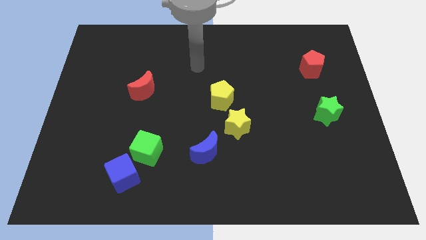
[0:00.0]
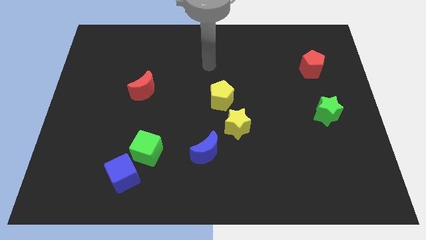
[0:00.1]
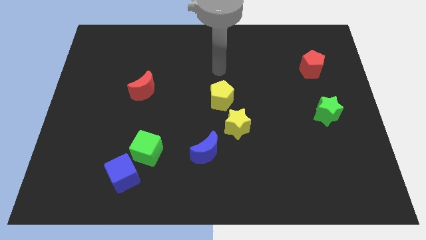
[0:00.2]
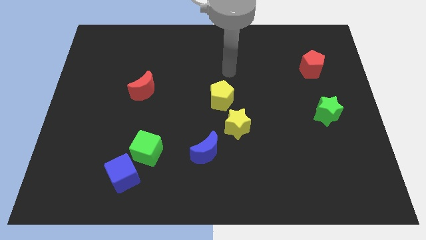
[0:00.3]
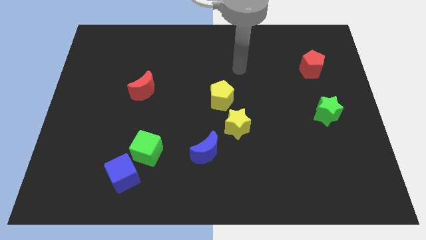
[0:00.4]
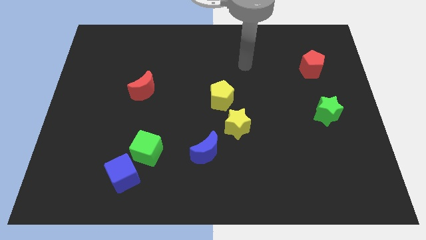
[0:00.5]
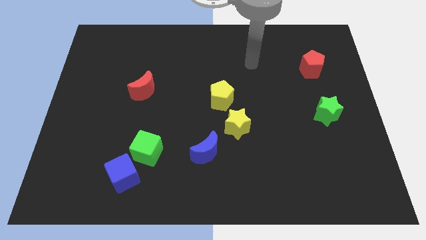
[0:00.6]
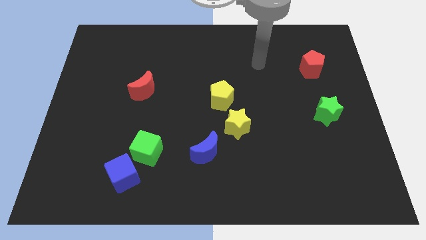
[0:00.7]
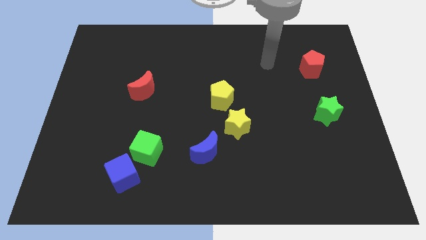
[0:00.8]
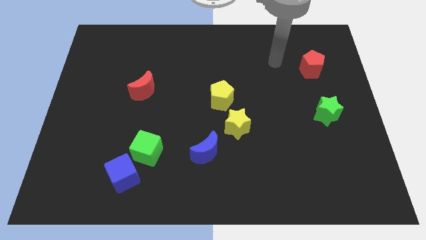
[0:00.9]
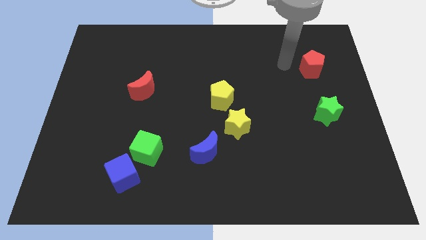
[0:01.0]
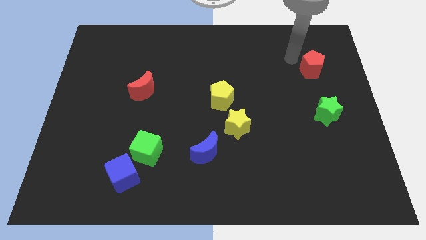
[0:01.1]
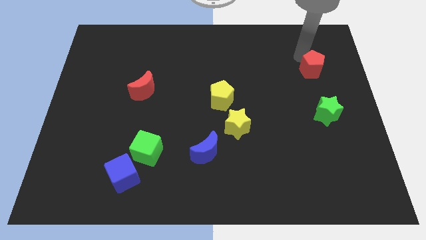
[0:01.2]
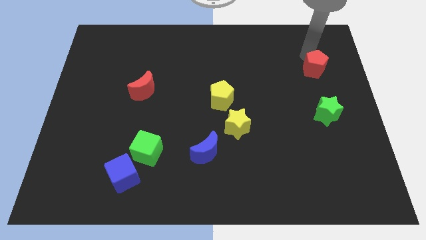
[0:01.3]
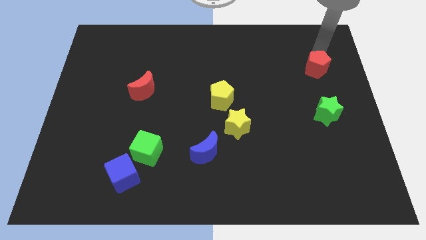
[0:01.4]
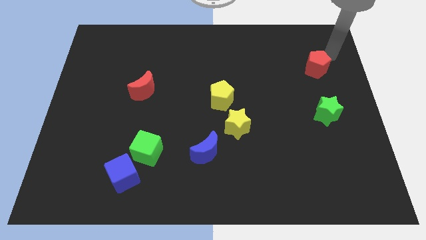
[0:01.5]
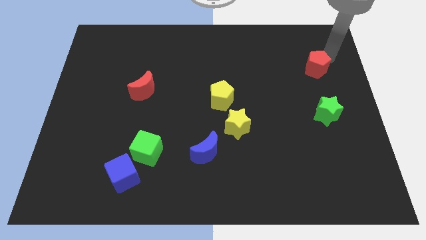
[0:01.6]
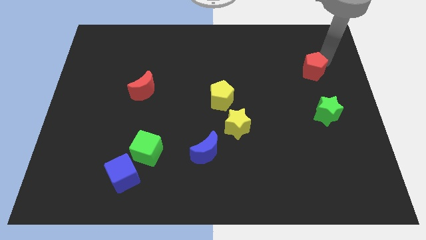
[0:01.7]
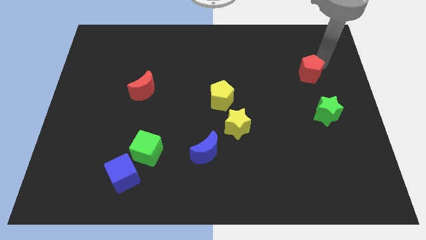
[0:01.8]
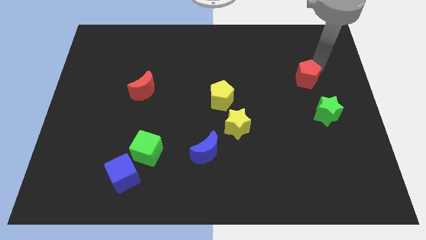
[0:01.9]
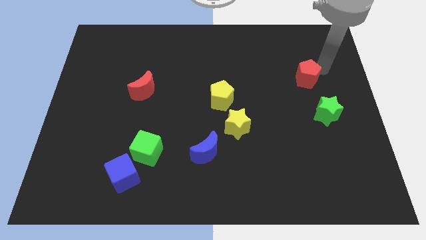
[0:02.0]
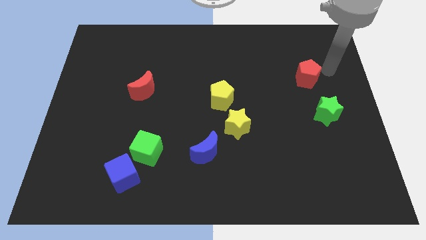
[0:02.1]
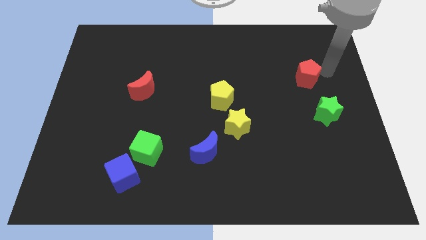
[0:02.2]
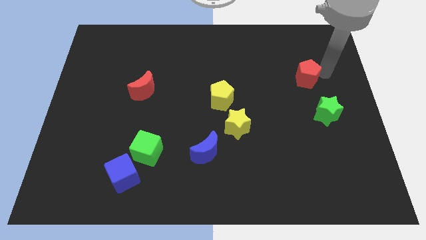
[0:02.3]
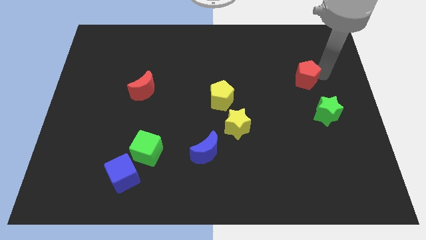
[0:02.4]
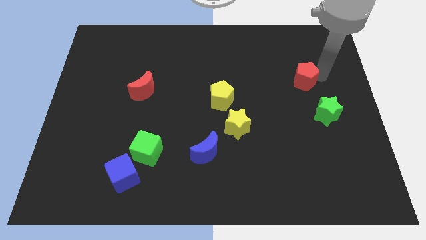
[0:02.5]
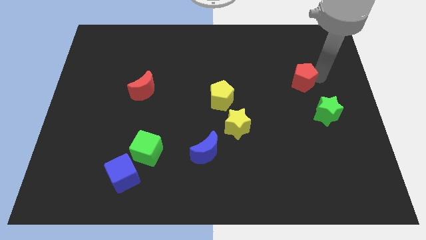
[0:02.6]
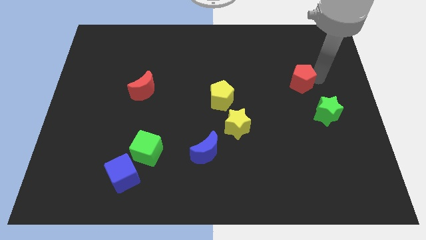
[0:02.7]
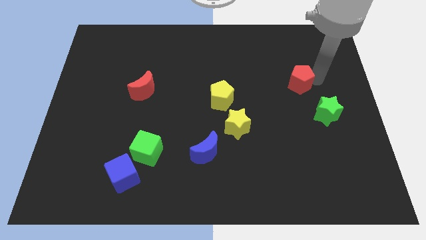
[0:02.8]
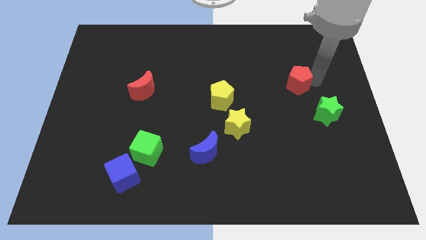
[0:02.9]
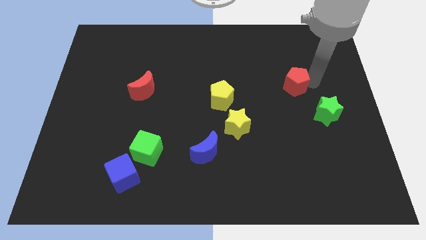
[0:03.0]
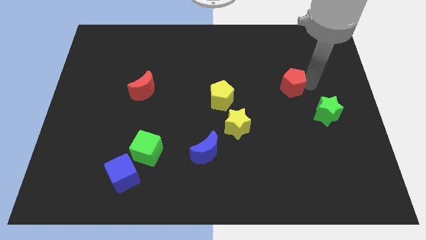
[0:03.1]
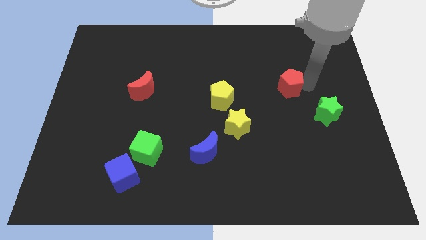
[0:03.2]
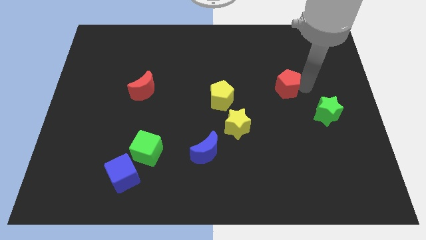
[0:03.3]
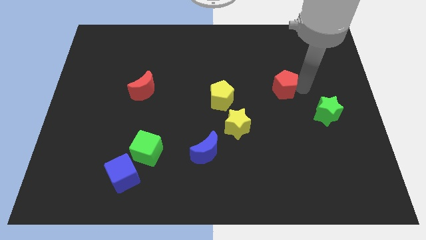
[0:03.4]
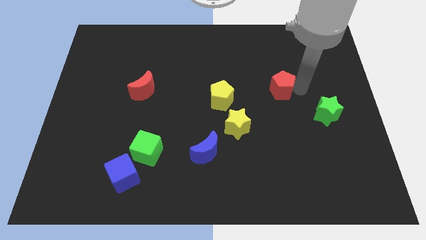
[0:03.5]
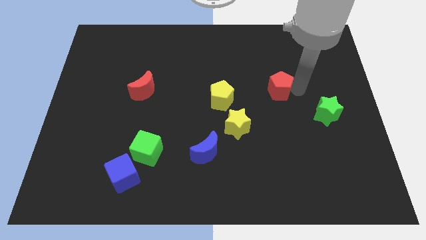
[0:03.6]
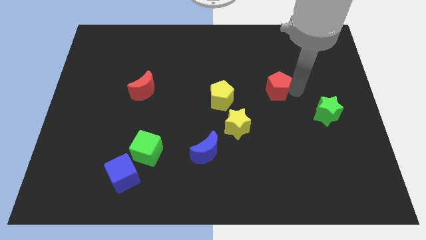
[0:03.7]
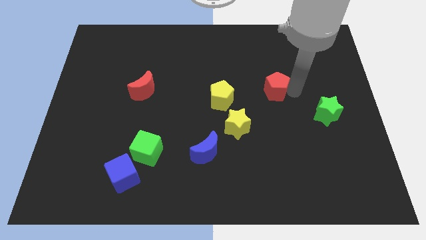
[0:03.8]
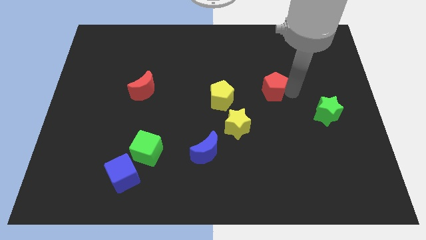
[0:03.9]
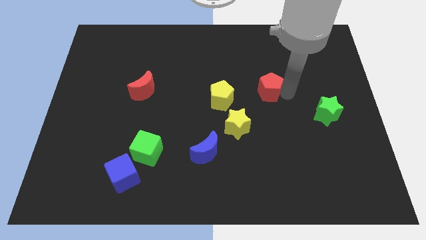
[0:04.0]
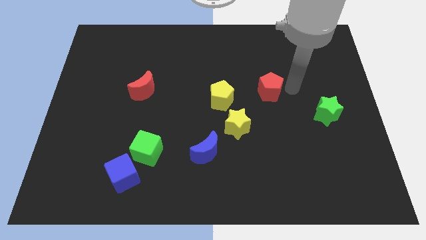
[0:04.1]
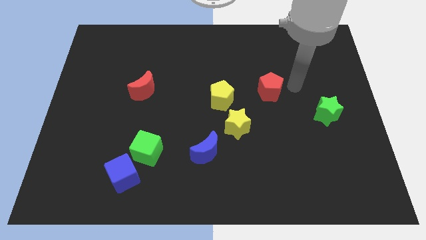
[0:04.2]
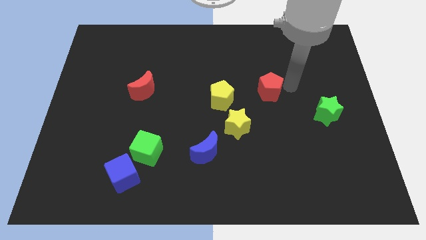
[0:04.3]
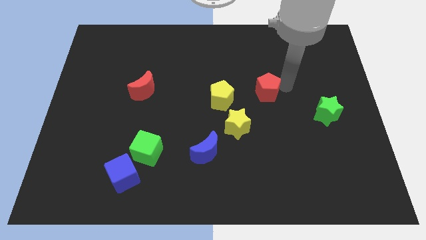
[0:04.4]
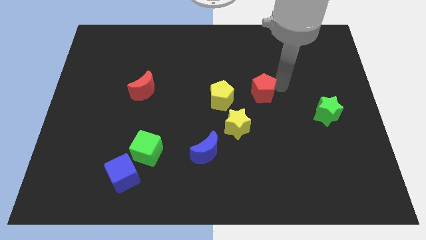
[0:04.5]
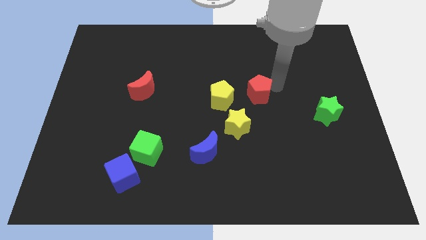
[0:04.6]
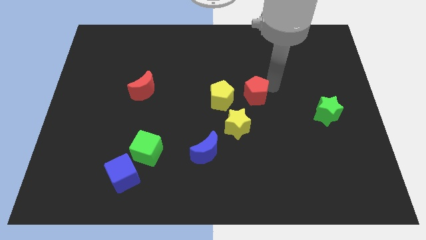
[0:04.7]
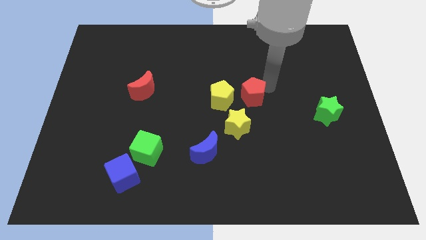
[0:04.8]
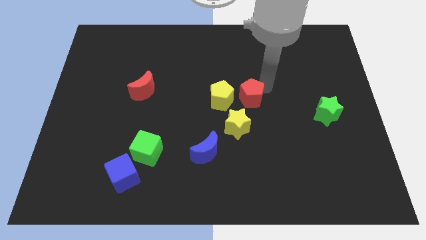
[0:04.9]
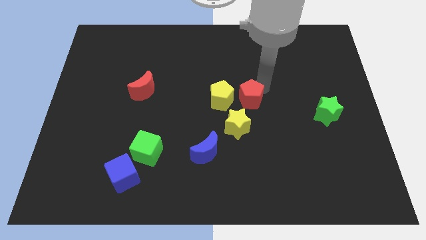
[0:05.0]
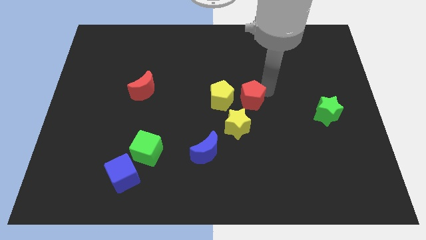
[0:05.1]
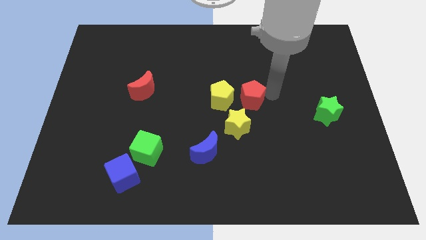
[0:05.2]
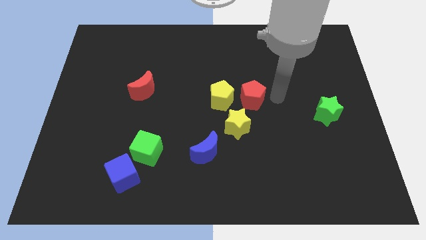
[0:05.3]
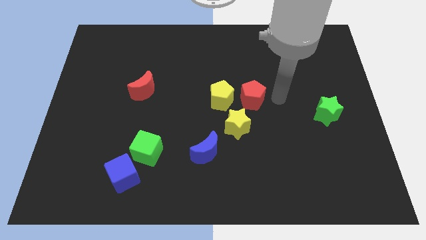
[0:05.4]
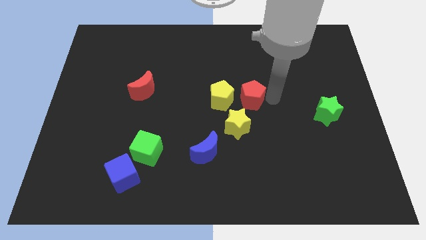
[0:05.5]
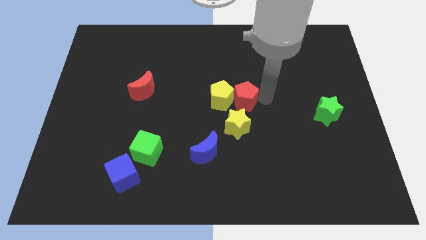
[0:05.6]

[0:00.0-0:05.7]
put the red pentagon next to the yellow pentagon

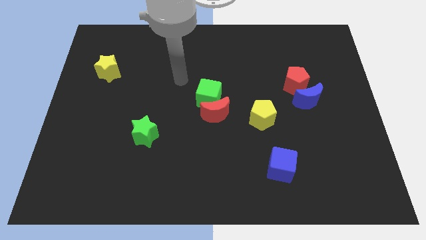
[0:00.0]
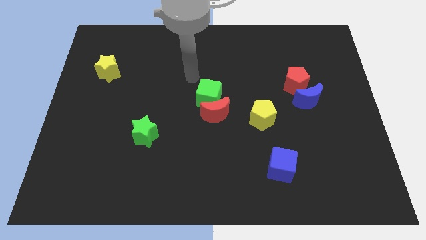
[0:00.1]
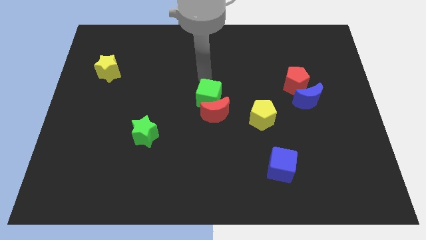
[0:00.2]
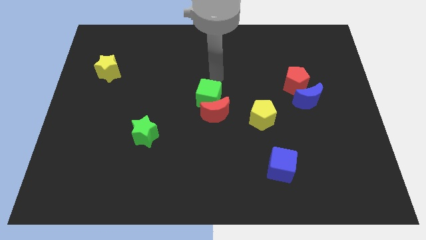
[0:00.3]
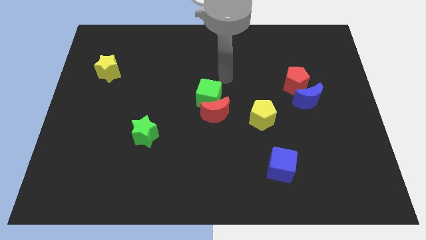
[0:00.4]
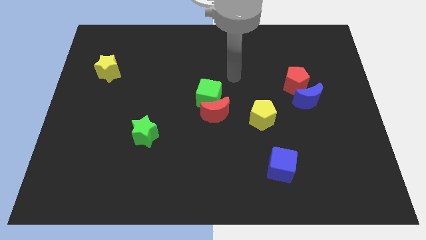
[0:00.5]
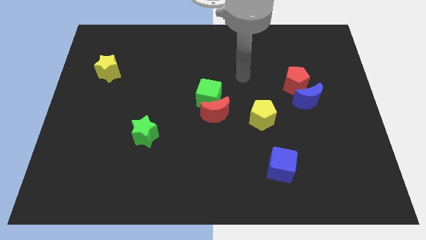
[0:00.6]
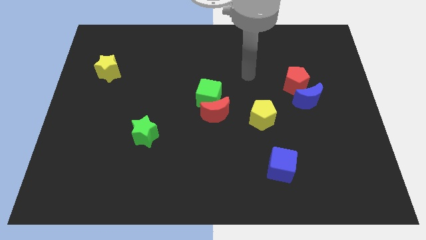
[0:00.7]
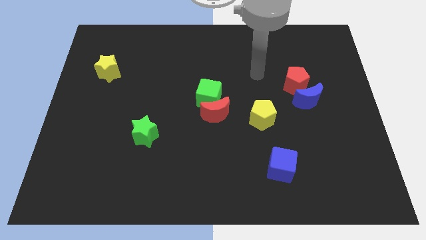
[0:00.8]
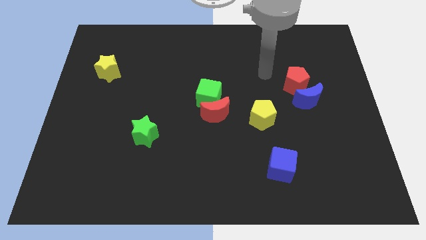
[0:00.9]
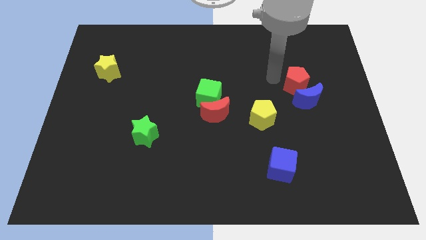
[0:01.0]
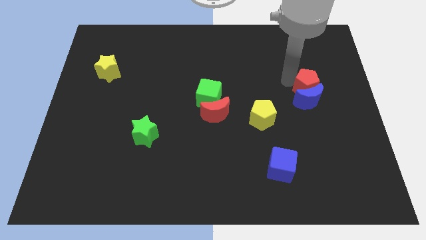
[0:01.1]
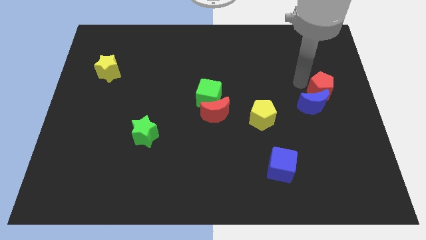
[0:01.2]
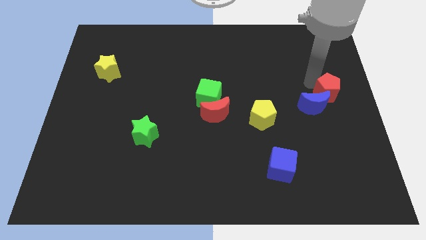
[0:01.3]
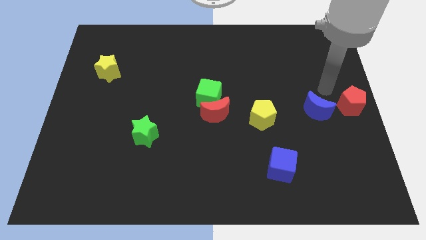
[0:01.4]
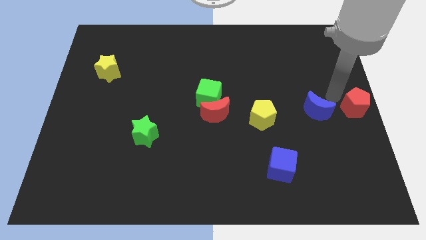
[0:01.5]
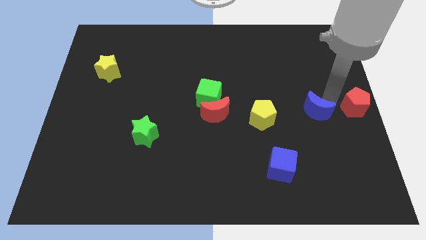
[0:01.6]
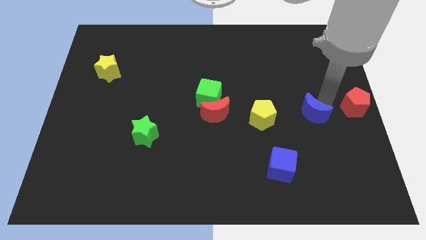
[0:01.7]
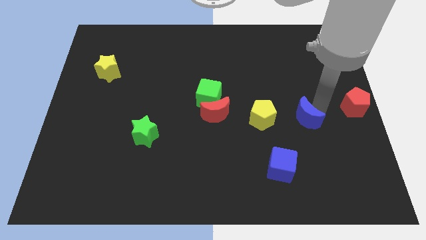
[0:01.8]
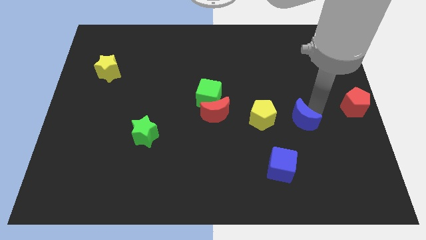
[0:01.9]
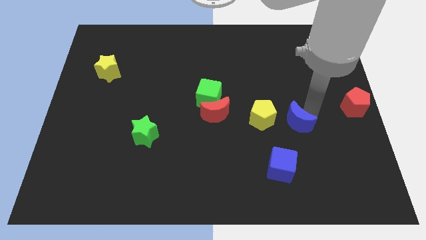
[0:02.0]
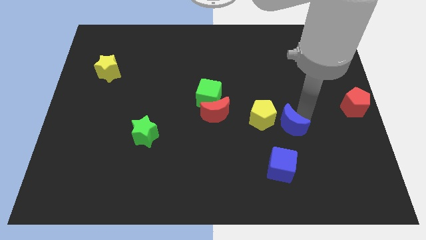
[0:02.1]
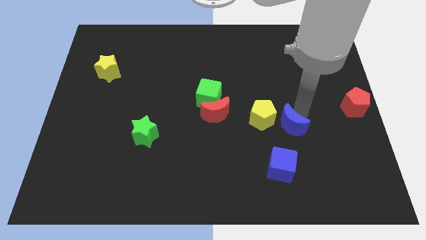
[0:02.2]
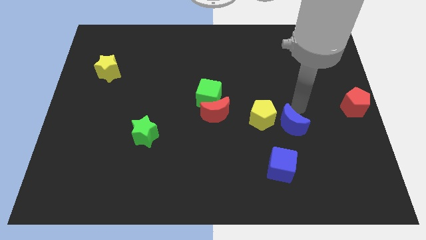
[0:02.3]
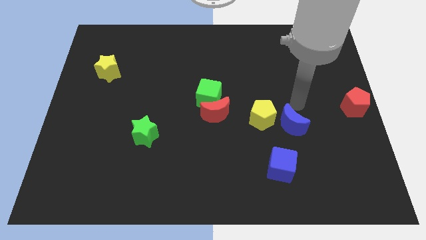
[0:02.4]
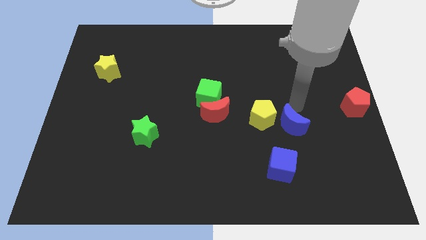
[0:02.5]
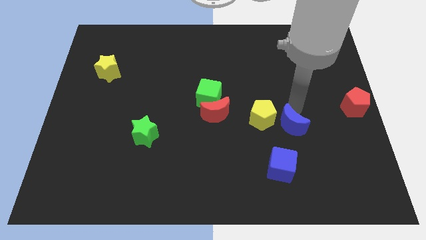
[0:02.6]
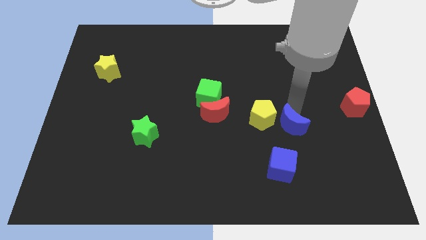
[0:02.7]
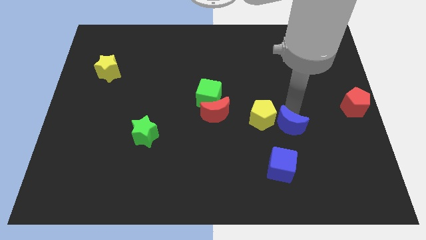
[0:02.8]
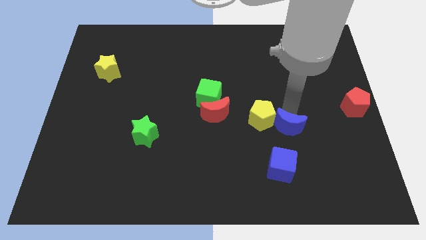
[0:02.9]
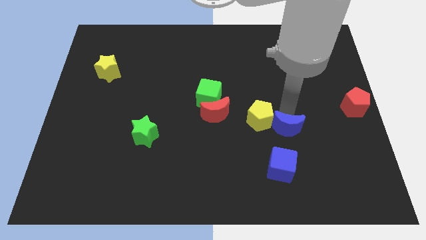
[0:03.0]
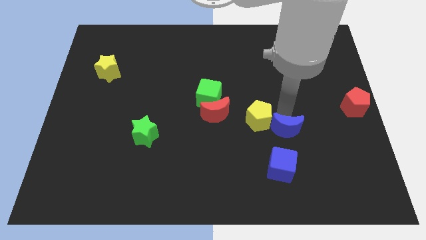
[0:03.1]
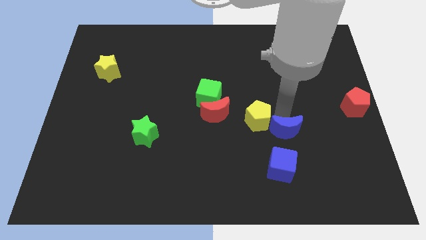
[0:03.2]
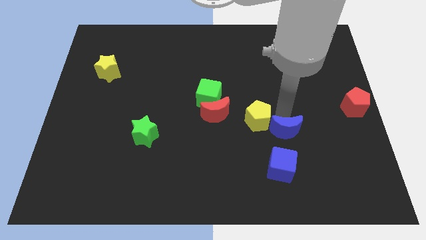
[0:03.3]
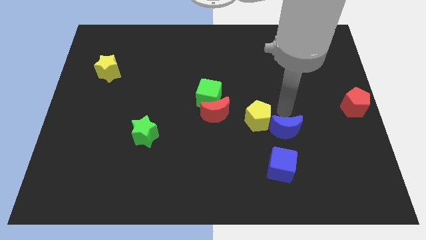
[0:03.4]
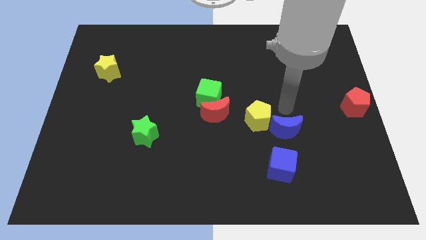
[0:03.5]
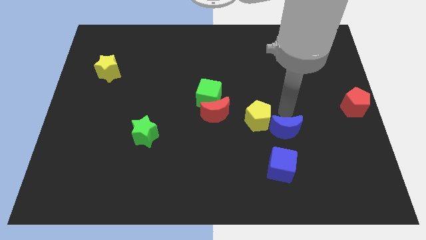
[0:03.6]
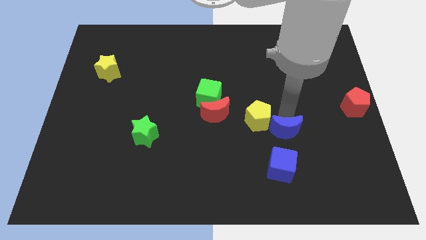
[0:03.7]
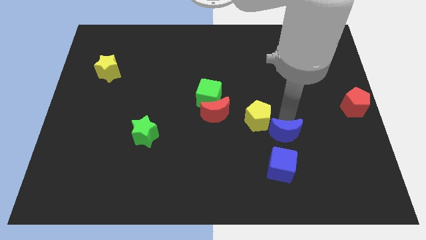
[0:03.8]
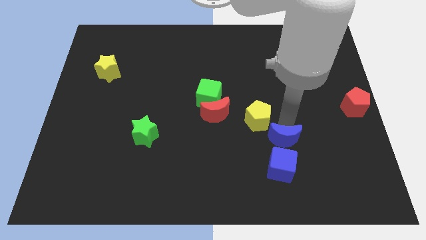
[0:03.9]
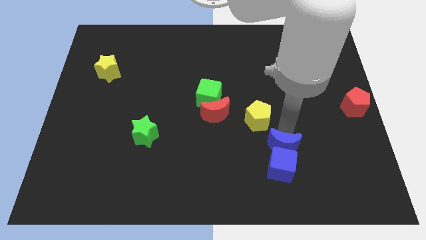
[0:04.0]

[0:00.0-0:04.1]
slide the blue moon to the blue cube
